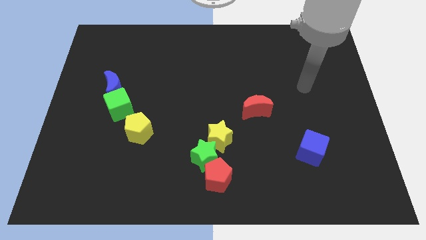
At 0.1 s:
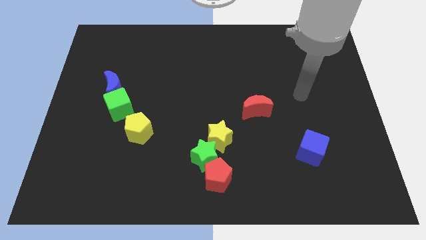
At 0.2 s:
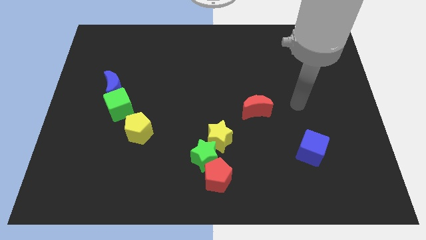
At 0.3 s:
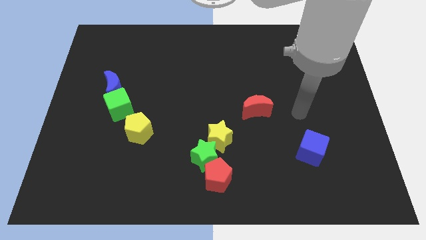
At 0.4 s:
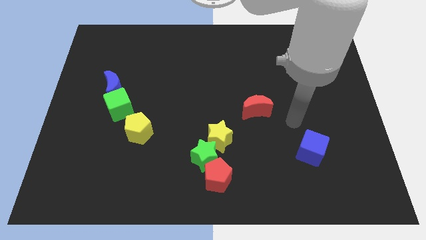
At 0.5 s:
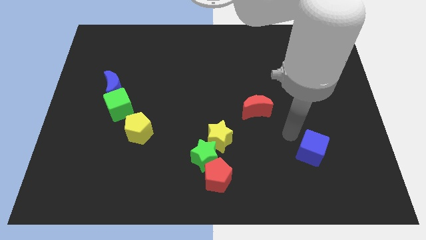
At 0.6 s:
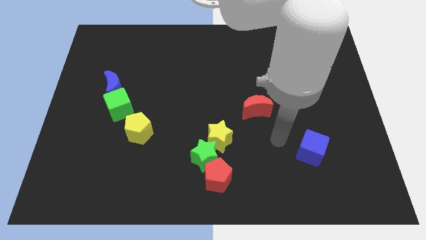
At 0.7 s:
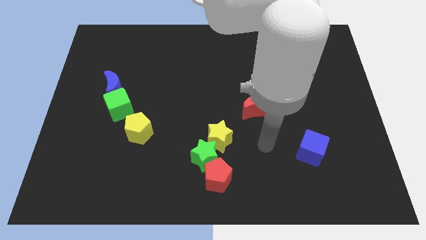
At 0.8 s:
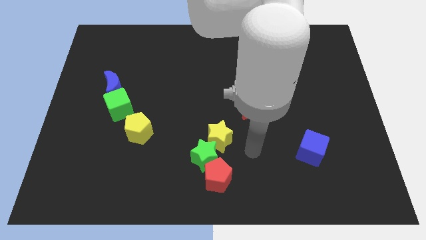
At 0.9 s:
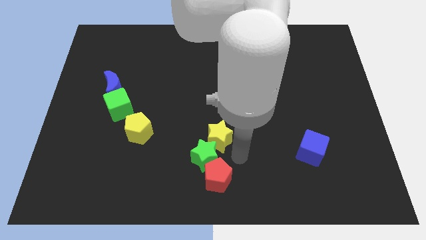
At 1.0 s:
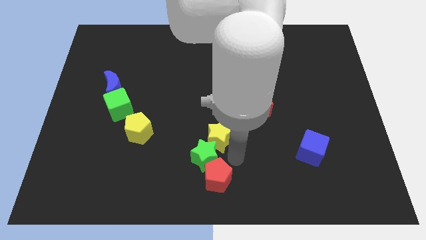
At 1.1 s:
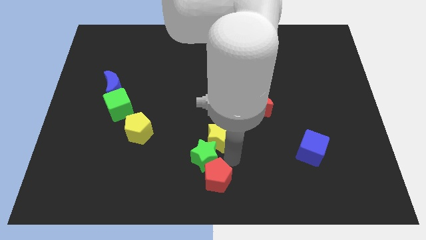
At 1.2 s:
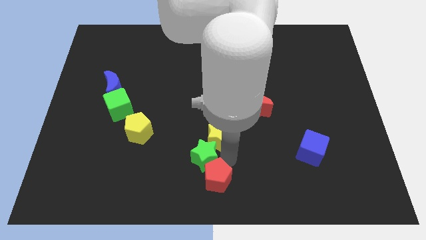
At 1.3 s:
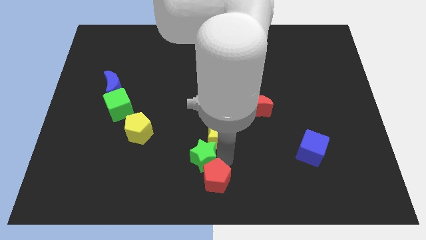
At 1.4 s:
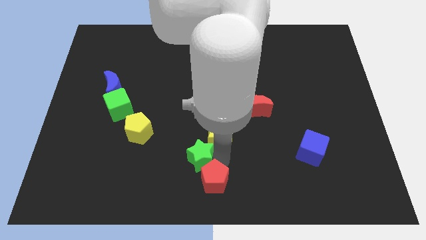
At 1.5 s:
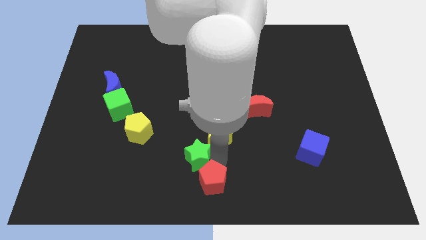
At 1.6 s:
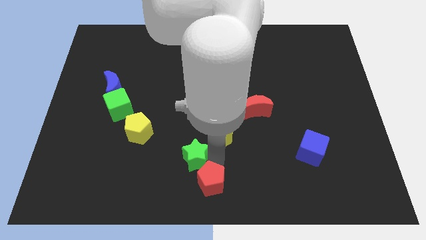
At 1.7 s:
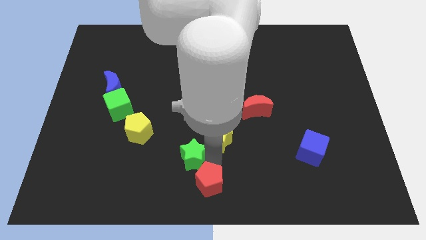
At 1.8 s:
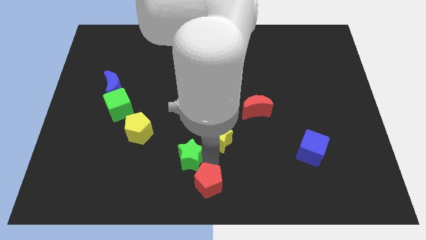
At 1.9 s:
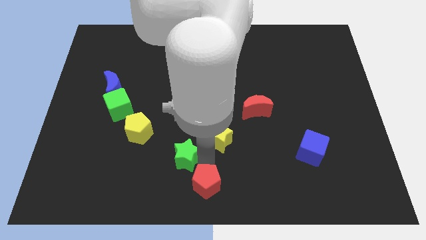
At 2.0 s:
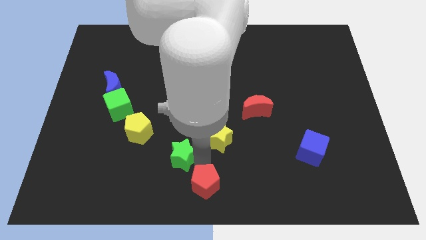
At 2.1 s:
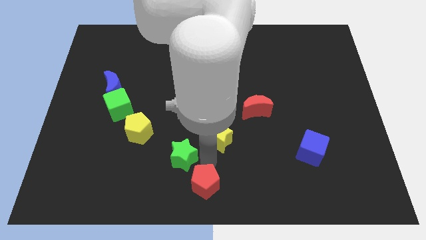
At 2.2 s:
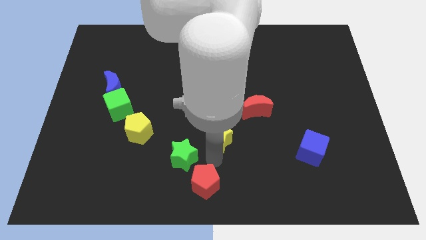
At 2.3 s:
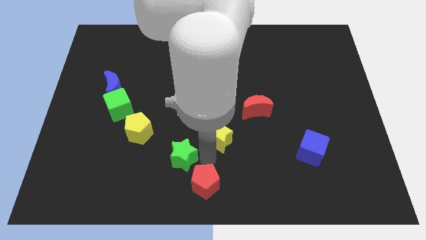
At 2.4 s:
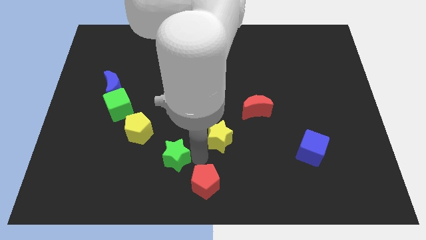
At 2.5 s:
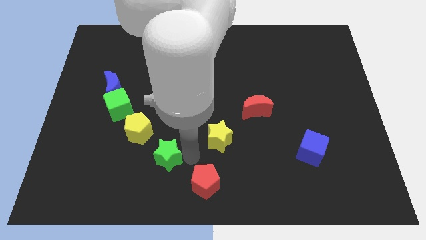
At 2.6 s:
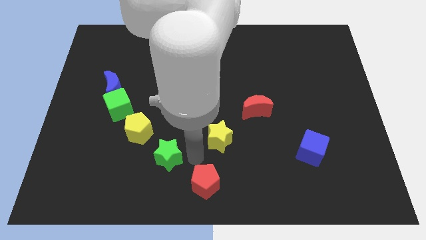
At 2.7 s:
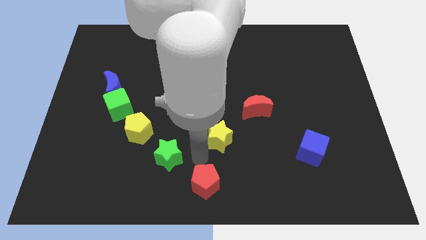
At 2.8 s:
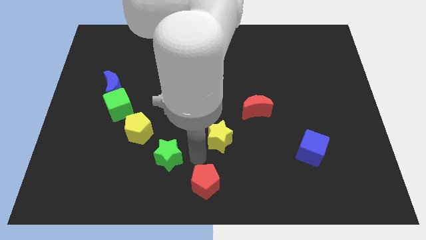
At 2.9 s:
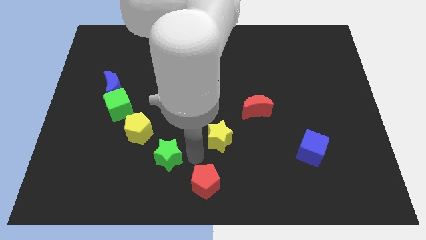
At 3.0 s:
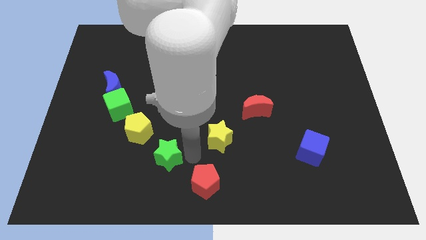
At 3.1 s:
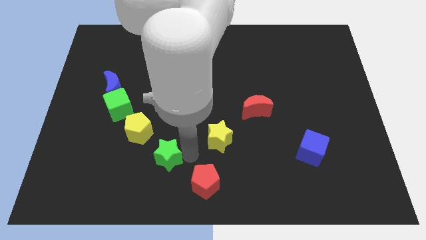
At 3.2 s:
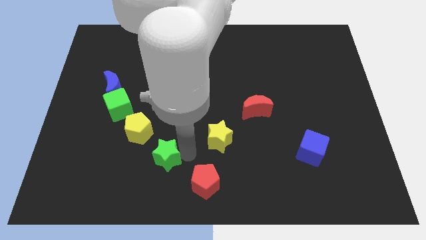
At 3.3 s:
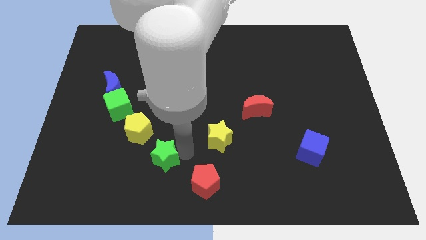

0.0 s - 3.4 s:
separate the green star from the yellow star and red pentagon

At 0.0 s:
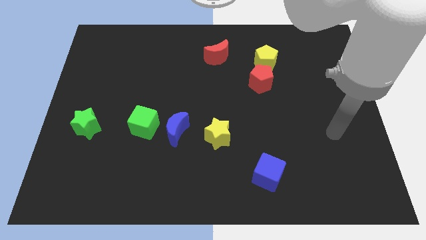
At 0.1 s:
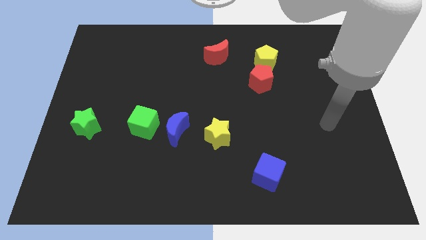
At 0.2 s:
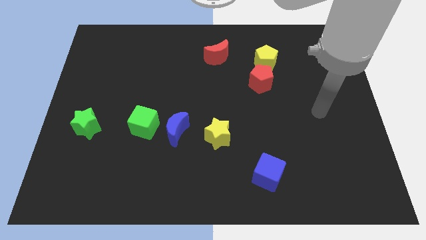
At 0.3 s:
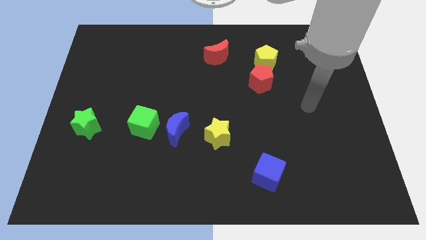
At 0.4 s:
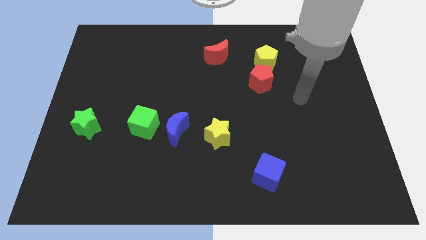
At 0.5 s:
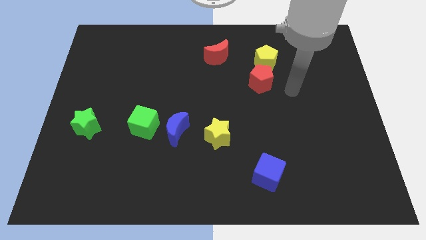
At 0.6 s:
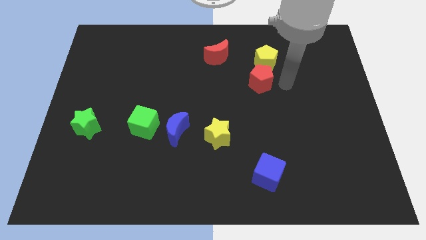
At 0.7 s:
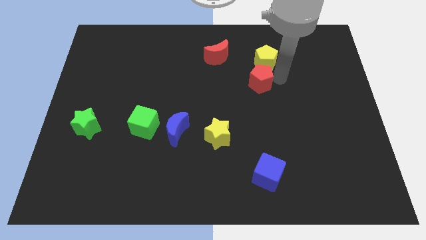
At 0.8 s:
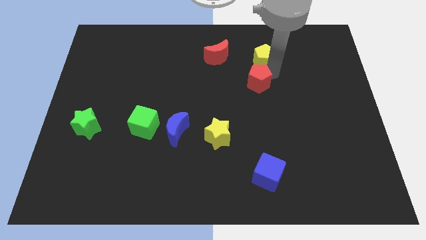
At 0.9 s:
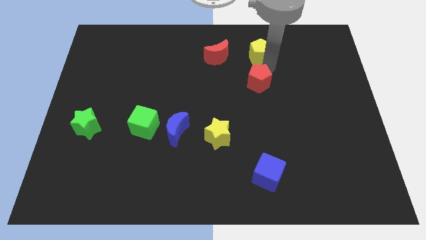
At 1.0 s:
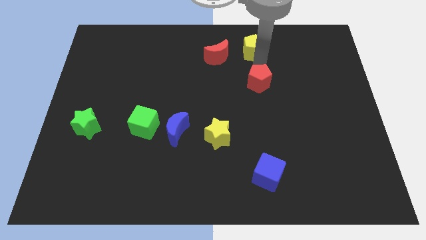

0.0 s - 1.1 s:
separate the red pentagon from the yellow pentagon

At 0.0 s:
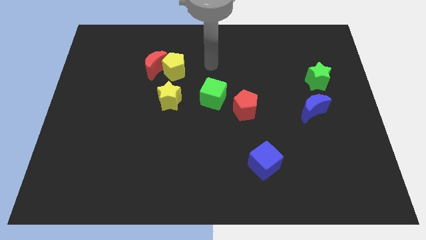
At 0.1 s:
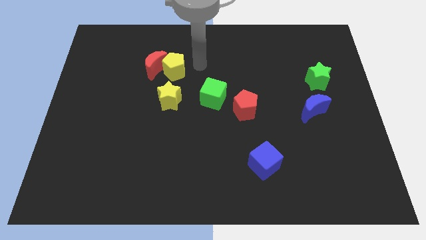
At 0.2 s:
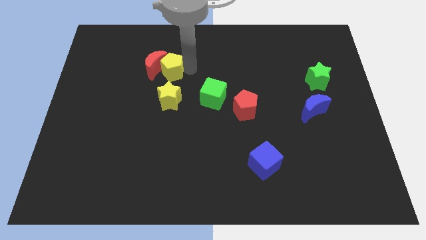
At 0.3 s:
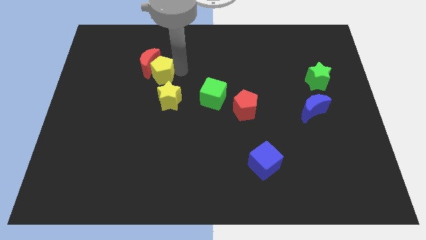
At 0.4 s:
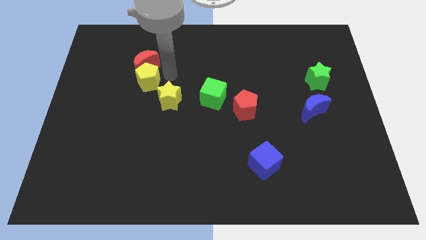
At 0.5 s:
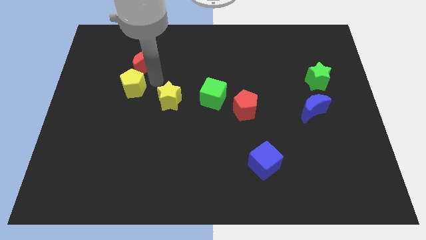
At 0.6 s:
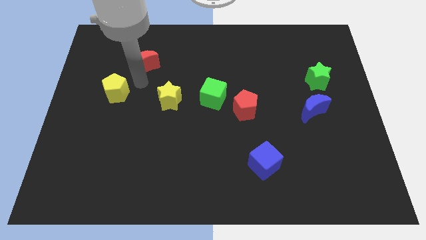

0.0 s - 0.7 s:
separate the red moon from the yellow pentagon

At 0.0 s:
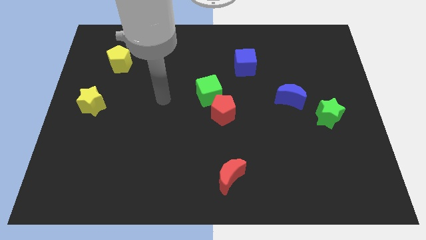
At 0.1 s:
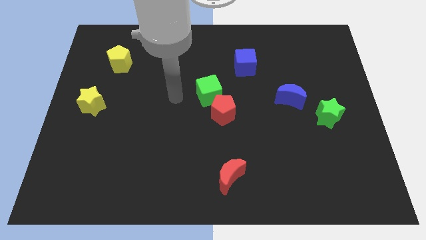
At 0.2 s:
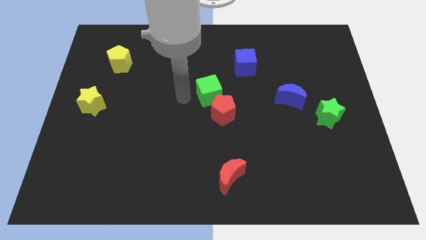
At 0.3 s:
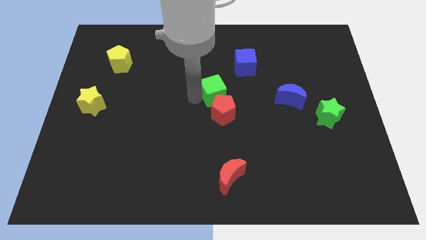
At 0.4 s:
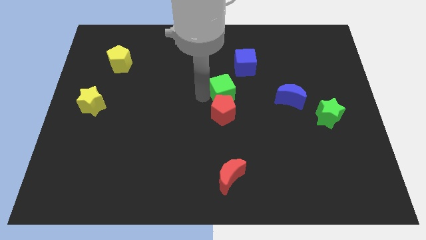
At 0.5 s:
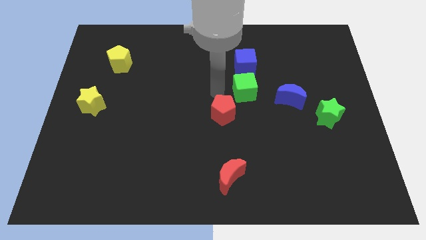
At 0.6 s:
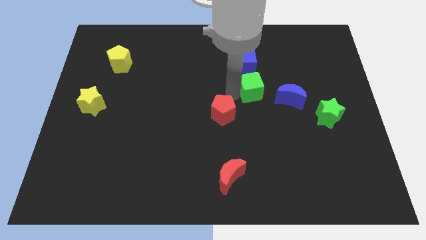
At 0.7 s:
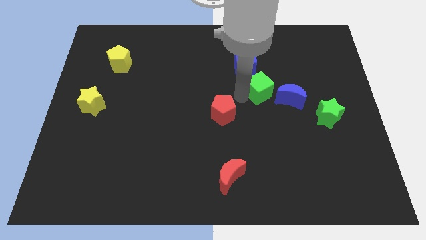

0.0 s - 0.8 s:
separate the red pentagon from the green cube

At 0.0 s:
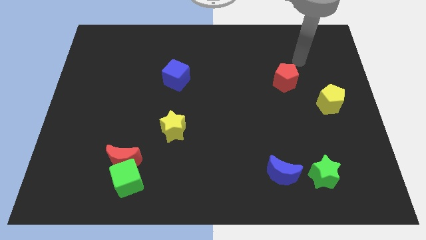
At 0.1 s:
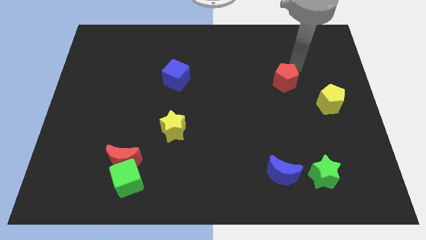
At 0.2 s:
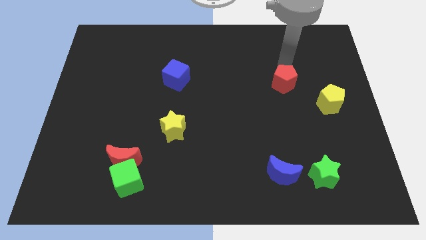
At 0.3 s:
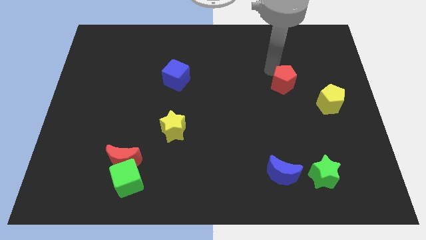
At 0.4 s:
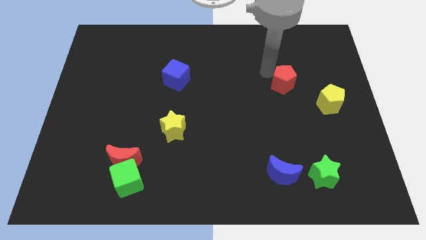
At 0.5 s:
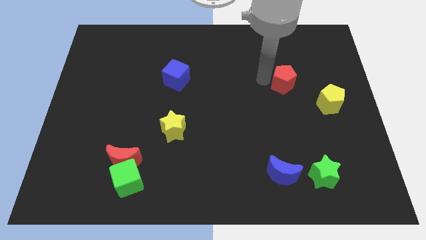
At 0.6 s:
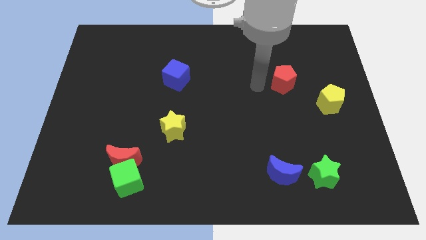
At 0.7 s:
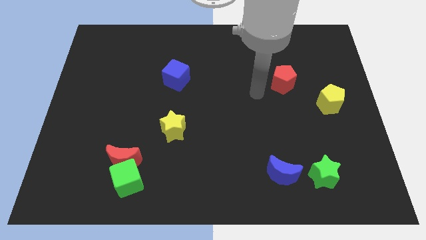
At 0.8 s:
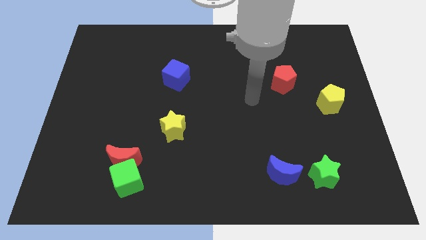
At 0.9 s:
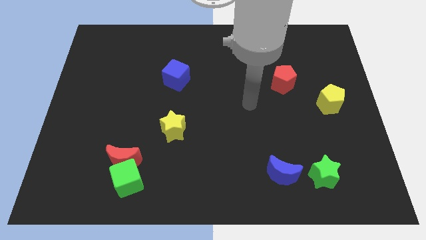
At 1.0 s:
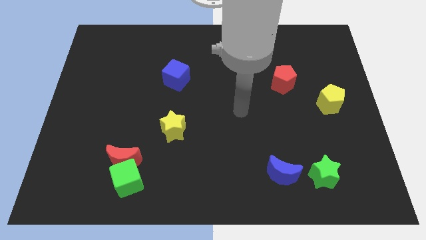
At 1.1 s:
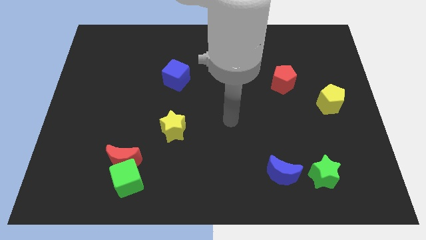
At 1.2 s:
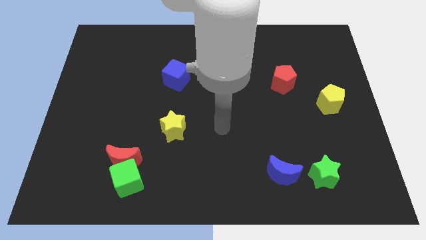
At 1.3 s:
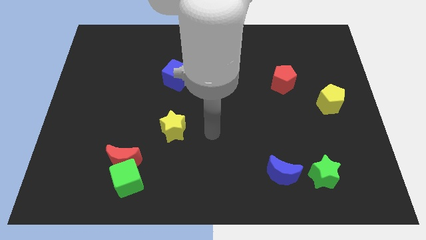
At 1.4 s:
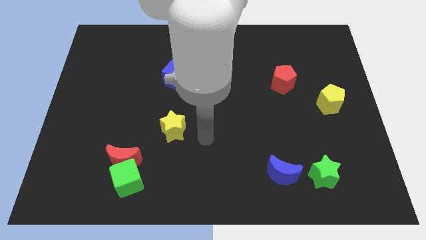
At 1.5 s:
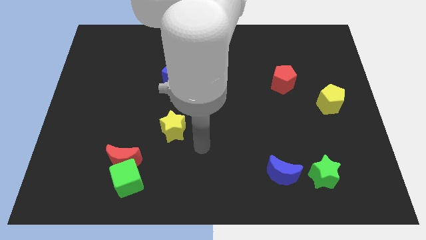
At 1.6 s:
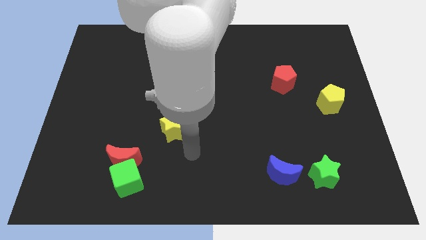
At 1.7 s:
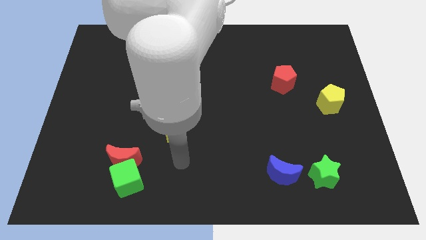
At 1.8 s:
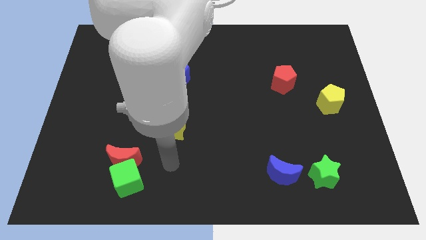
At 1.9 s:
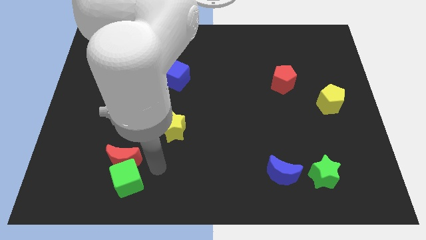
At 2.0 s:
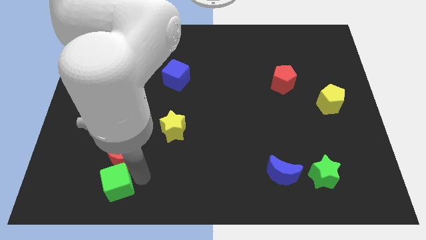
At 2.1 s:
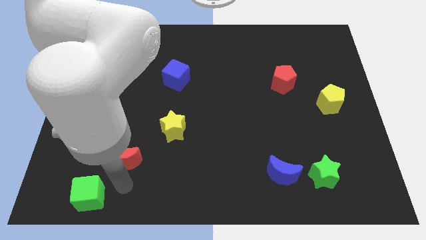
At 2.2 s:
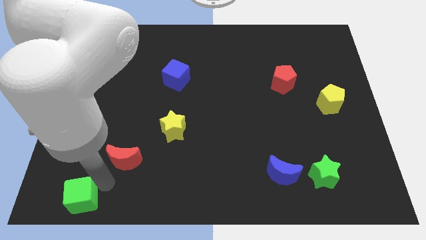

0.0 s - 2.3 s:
move the red moon away from the green cube

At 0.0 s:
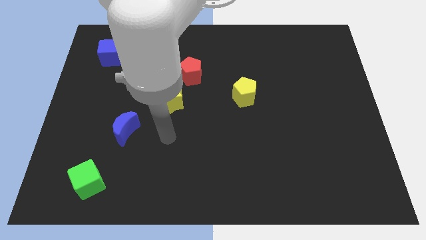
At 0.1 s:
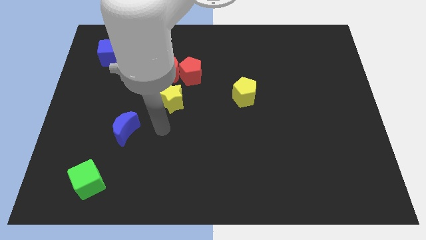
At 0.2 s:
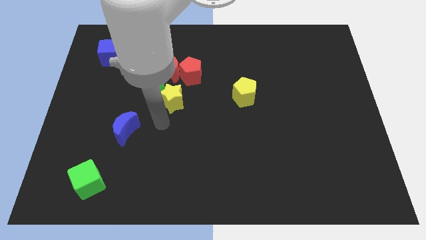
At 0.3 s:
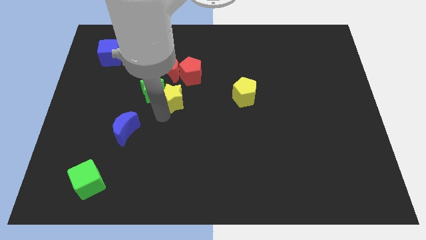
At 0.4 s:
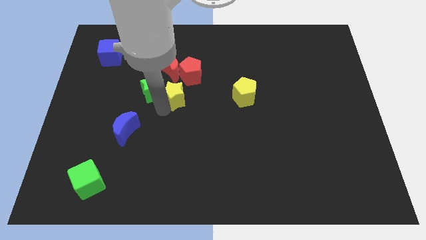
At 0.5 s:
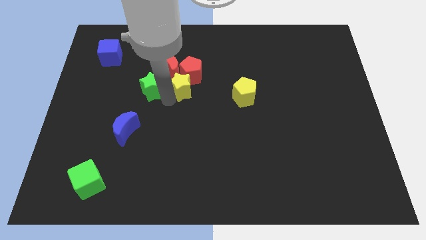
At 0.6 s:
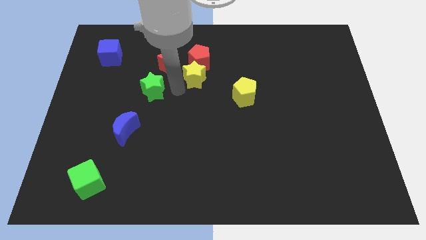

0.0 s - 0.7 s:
pull the green star apart from the group of blocks

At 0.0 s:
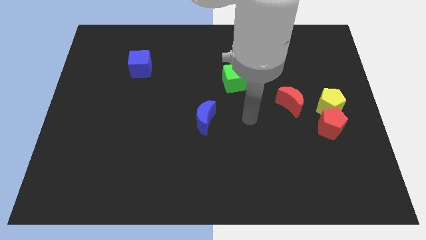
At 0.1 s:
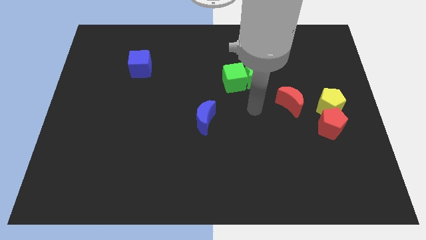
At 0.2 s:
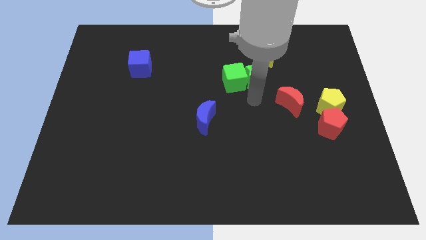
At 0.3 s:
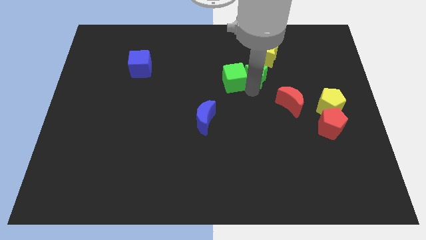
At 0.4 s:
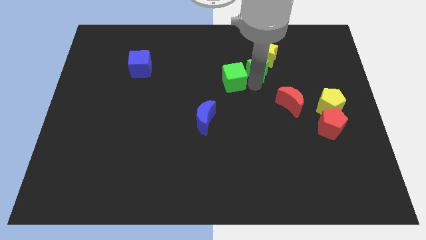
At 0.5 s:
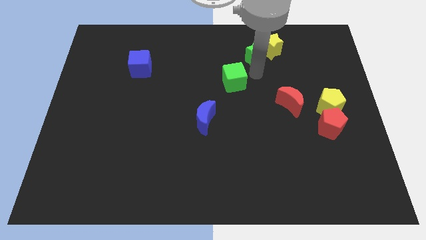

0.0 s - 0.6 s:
pull the green cube apart from the green star
